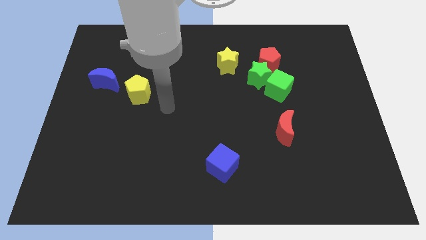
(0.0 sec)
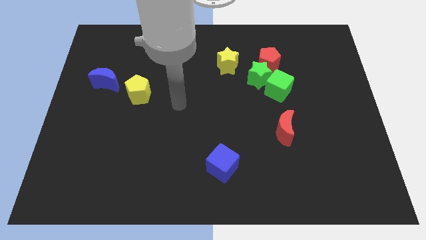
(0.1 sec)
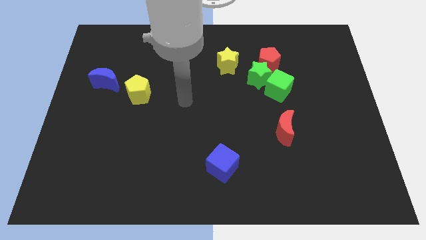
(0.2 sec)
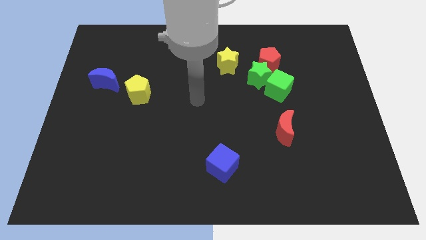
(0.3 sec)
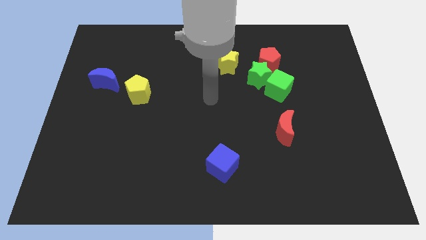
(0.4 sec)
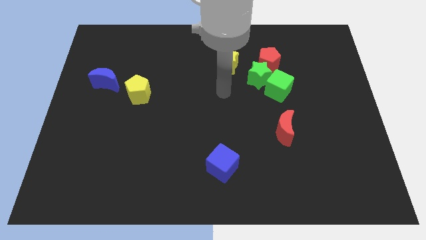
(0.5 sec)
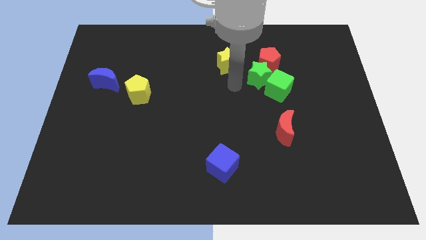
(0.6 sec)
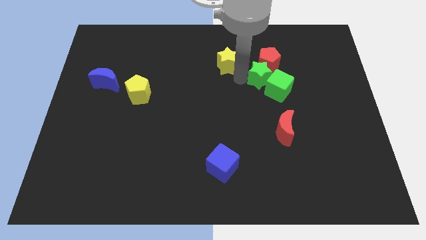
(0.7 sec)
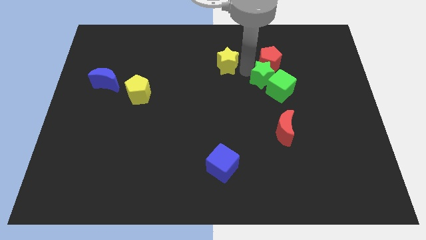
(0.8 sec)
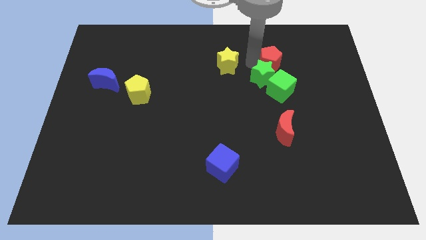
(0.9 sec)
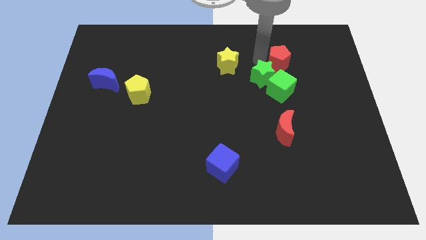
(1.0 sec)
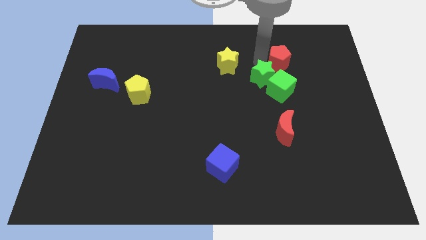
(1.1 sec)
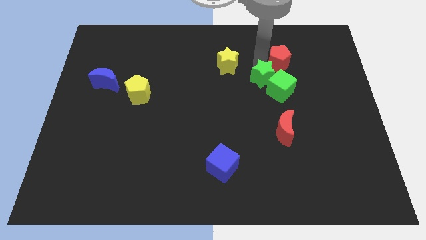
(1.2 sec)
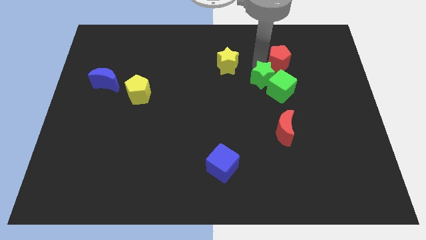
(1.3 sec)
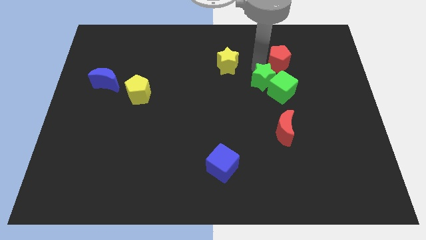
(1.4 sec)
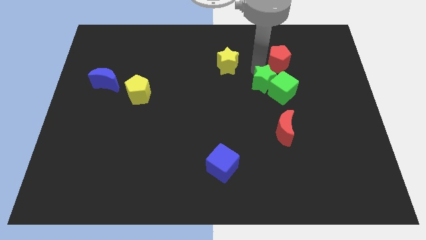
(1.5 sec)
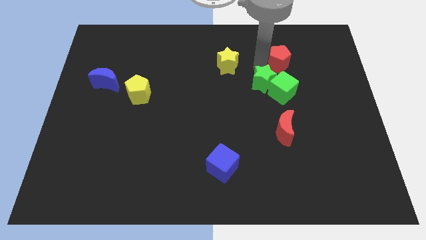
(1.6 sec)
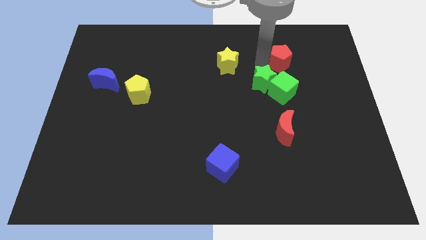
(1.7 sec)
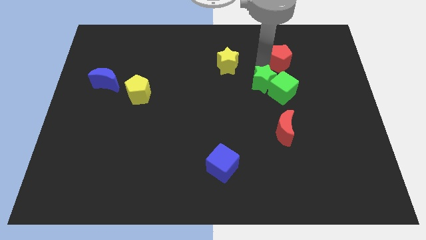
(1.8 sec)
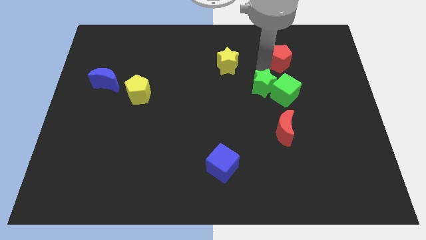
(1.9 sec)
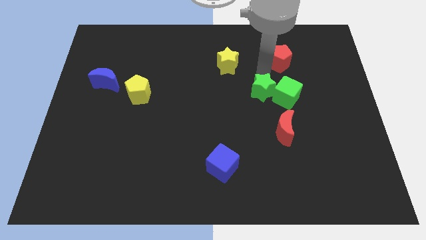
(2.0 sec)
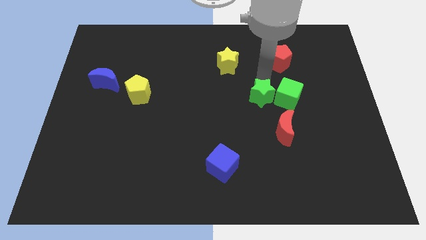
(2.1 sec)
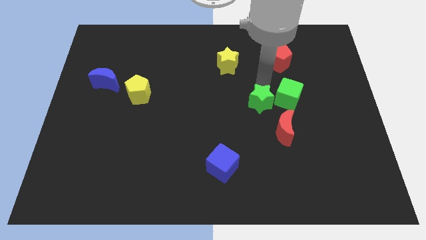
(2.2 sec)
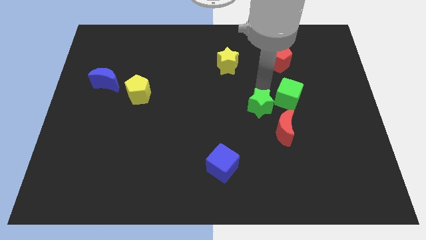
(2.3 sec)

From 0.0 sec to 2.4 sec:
separate the green star from the group

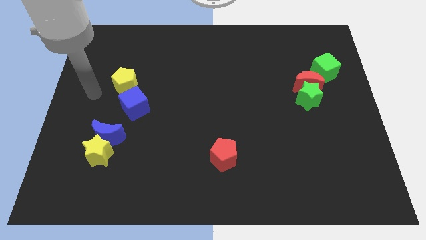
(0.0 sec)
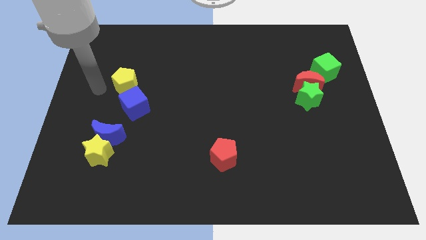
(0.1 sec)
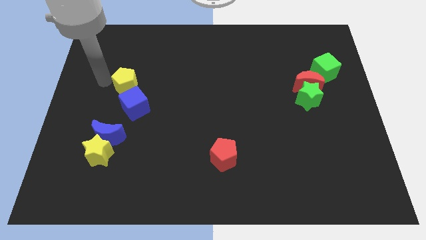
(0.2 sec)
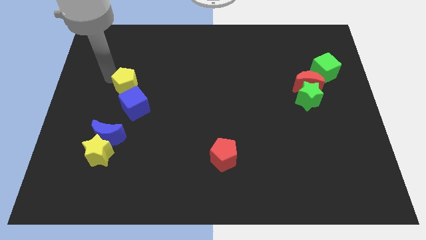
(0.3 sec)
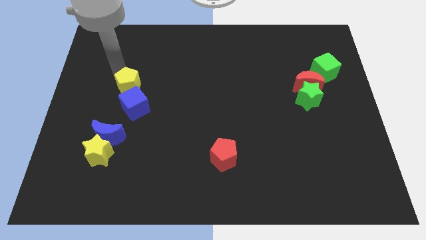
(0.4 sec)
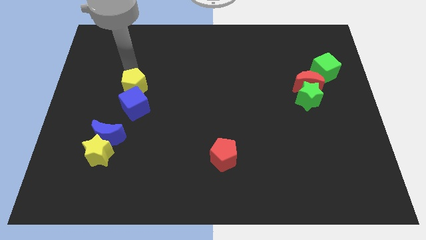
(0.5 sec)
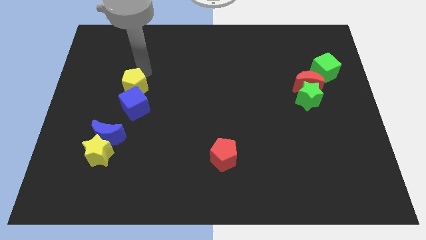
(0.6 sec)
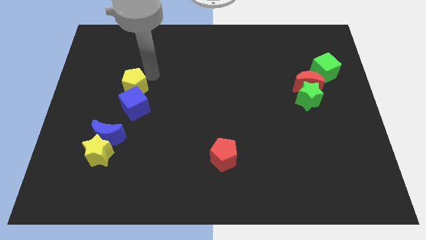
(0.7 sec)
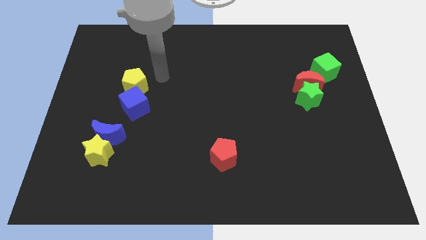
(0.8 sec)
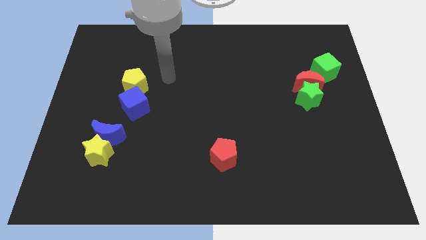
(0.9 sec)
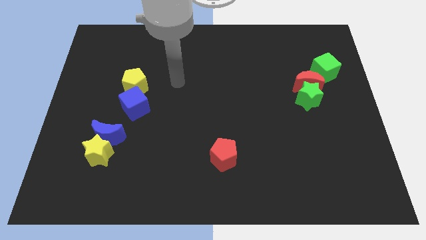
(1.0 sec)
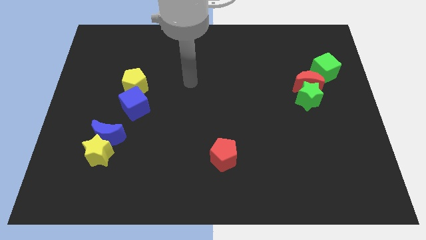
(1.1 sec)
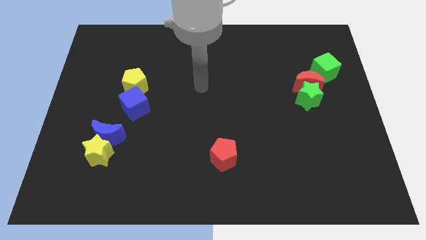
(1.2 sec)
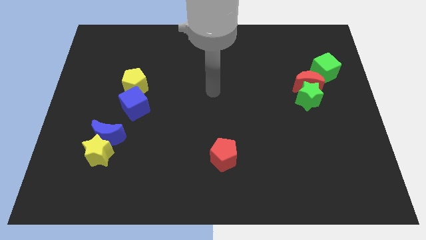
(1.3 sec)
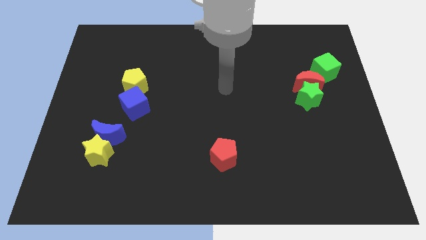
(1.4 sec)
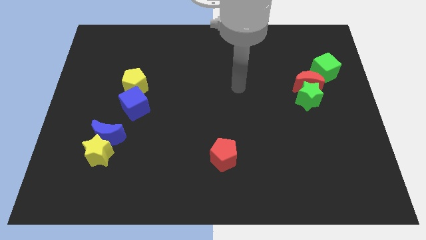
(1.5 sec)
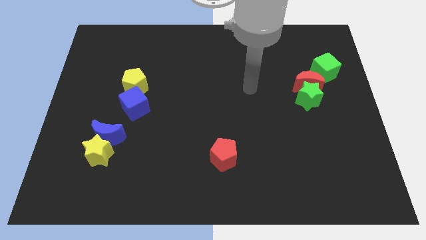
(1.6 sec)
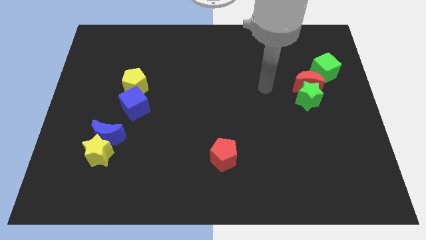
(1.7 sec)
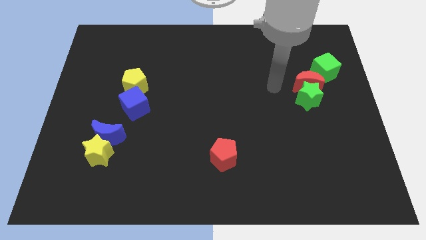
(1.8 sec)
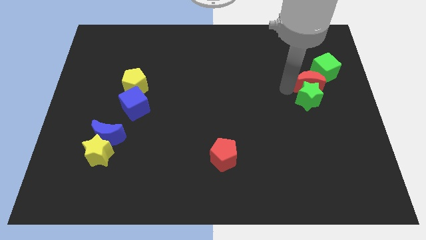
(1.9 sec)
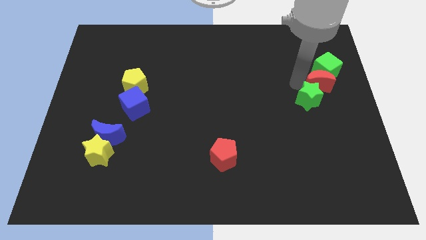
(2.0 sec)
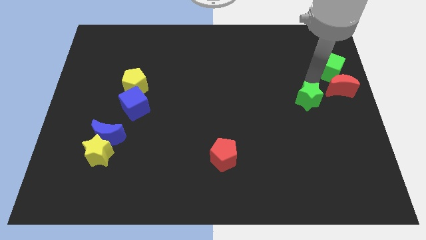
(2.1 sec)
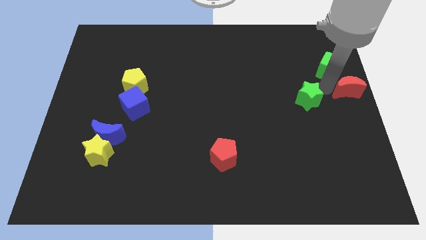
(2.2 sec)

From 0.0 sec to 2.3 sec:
pull the green star apart from the red moon

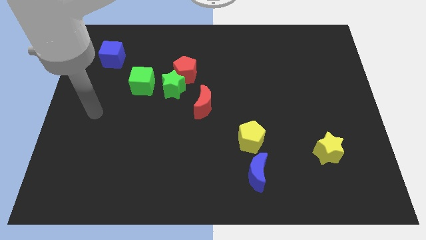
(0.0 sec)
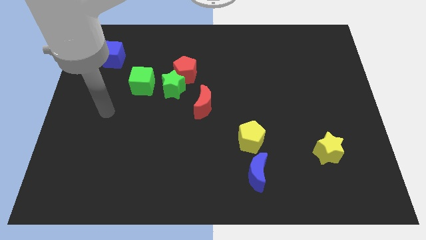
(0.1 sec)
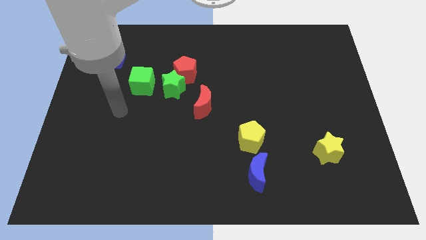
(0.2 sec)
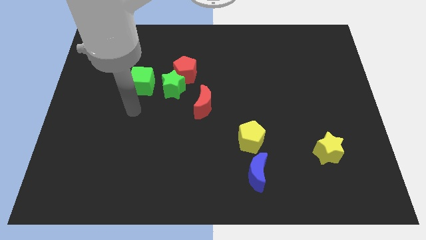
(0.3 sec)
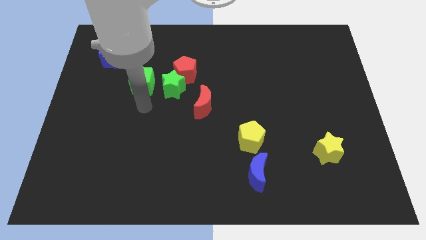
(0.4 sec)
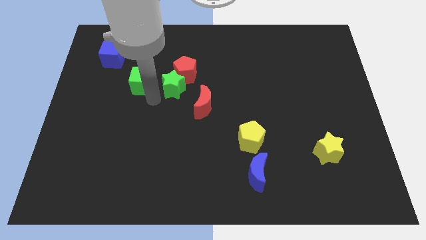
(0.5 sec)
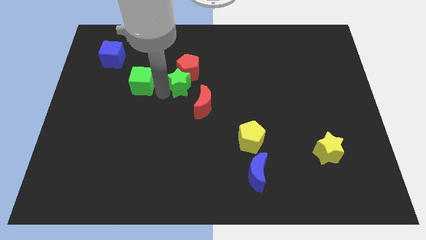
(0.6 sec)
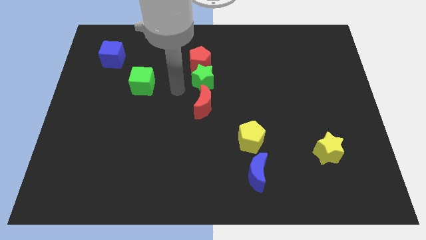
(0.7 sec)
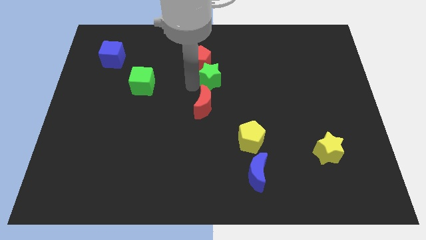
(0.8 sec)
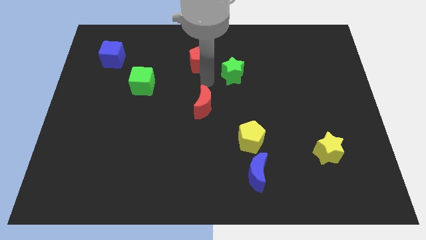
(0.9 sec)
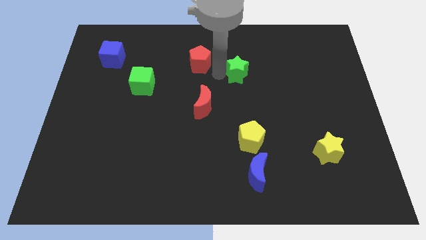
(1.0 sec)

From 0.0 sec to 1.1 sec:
pull the red pentagon apart from the green star

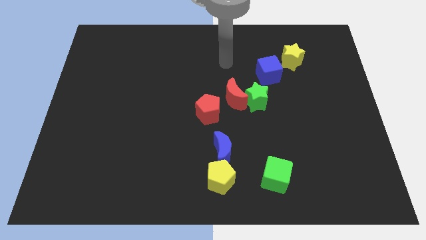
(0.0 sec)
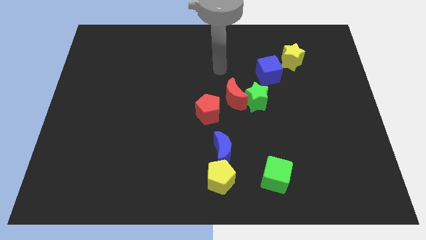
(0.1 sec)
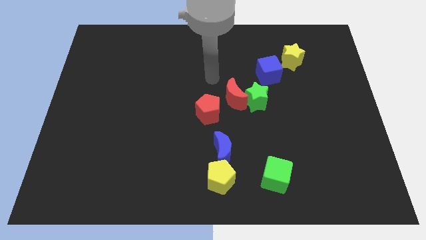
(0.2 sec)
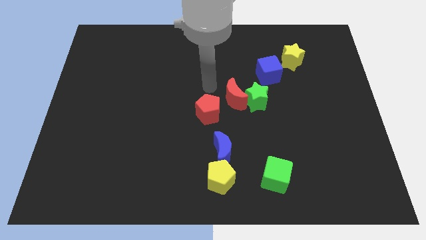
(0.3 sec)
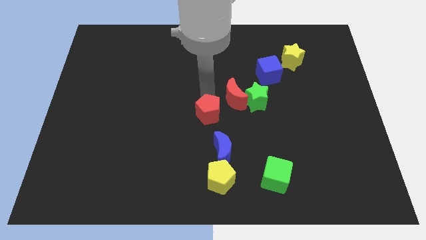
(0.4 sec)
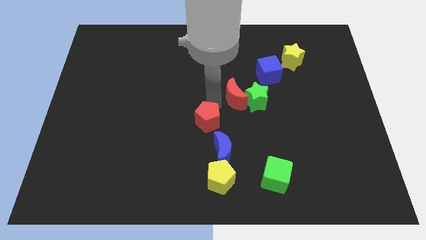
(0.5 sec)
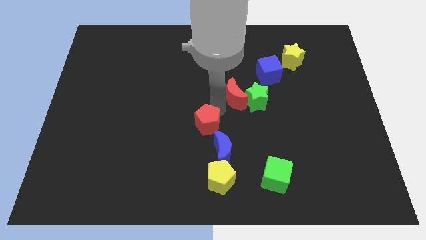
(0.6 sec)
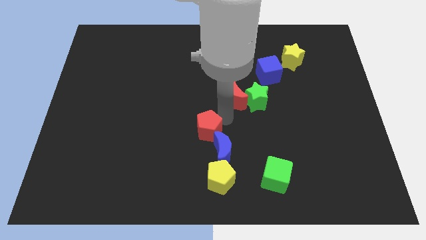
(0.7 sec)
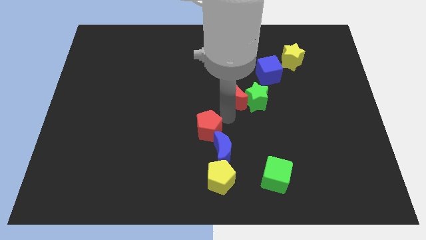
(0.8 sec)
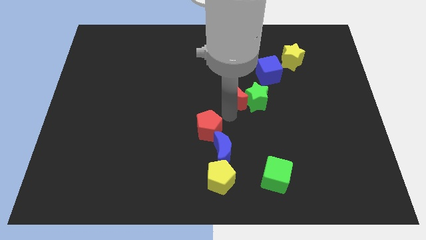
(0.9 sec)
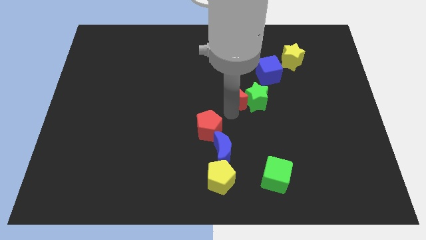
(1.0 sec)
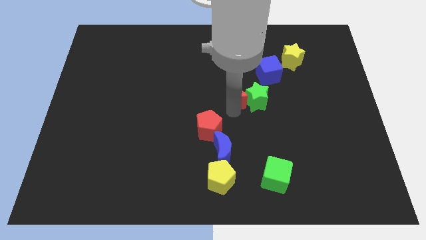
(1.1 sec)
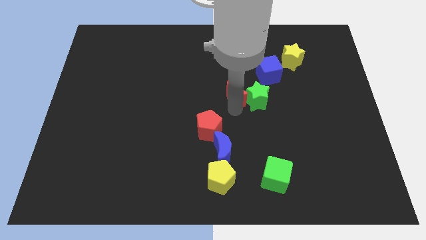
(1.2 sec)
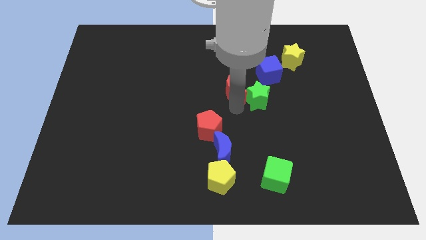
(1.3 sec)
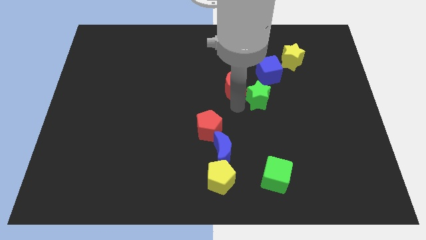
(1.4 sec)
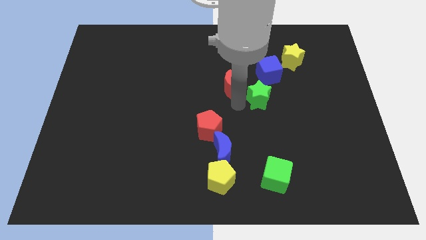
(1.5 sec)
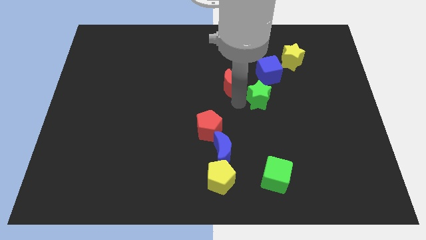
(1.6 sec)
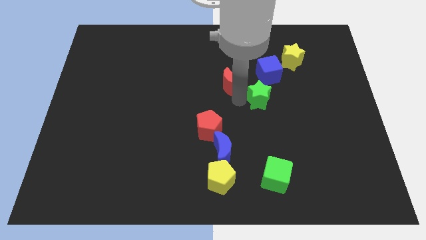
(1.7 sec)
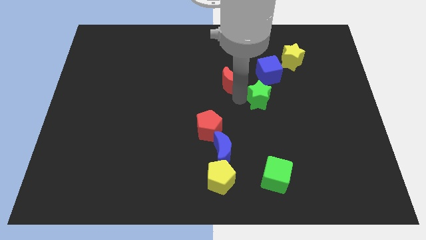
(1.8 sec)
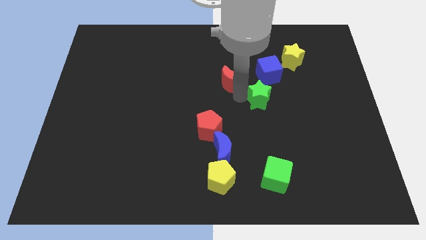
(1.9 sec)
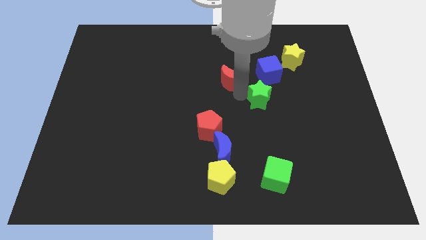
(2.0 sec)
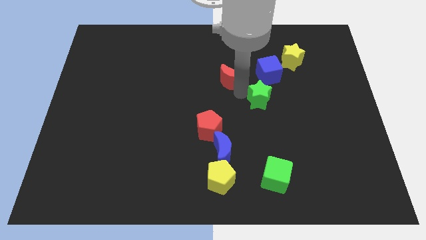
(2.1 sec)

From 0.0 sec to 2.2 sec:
move the red moon away from the green star and red pentagon

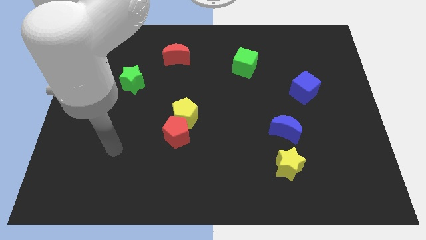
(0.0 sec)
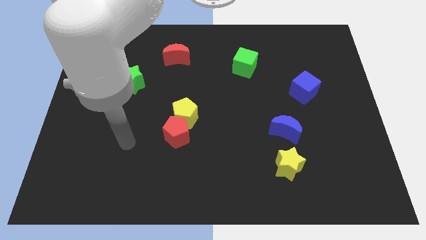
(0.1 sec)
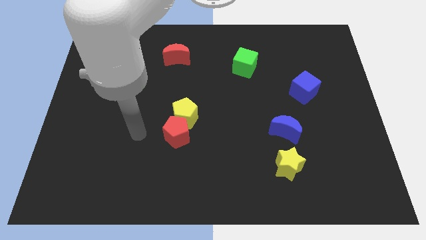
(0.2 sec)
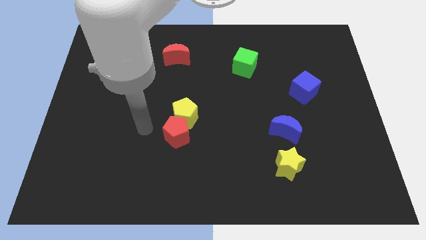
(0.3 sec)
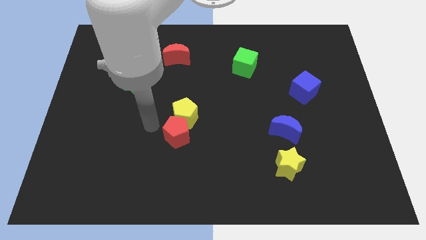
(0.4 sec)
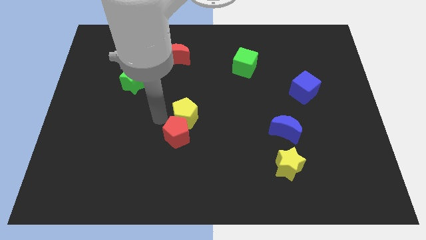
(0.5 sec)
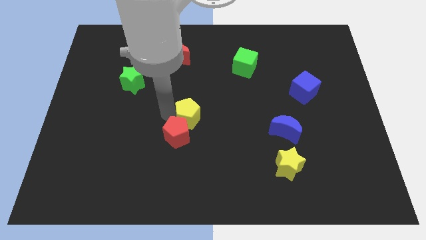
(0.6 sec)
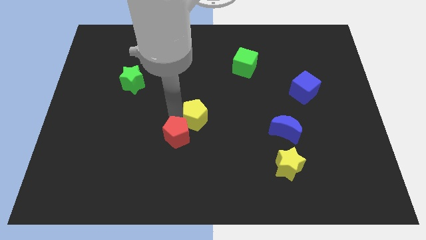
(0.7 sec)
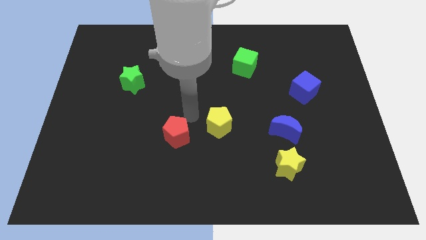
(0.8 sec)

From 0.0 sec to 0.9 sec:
separate the red pentagon from the yellow pentagon

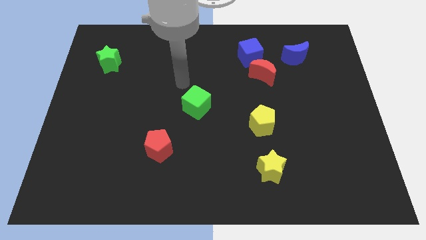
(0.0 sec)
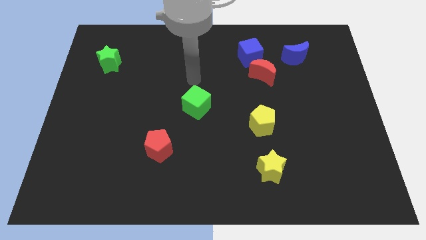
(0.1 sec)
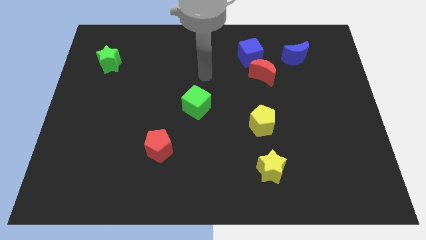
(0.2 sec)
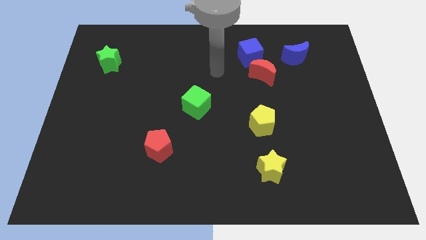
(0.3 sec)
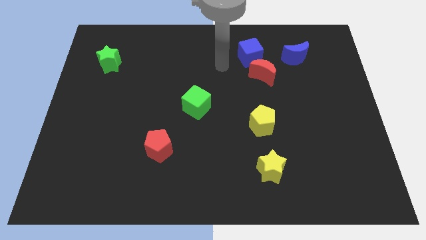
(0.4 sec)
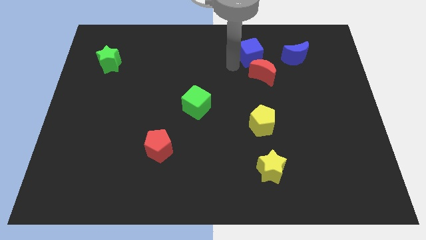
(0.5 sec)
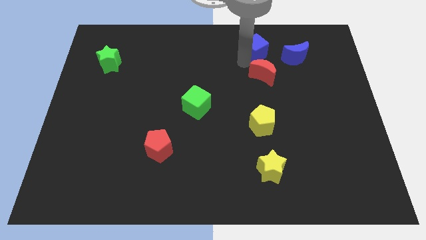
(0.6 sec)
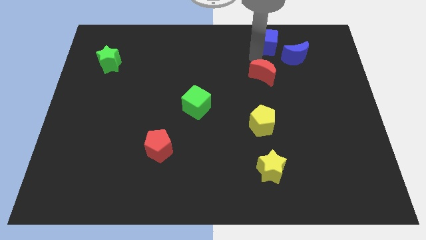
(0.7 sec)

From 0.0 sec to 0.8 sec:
move the red moon away from the blue cube
